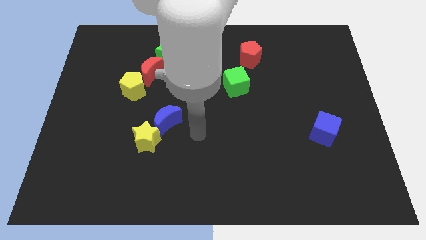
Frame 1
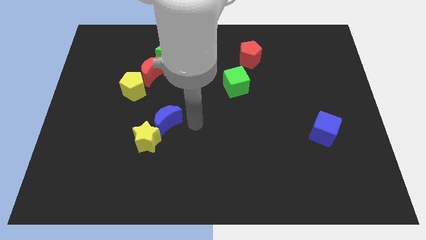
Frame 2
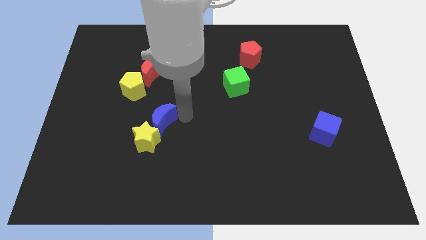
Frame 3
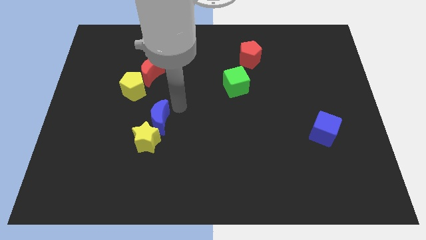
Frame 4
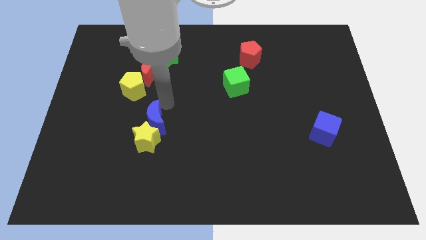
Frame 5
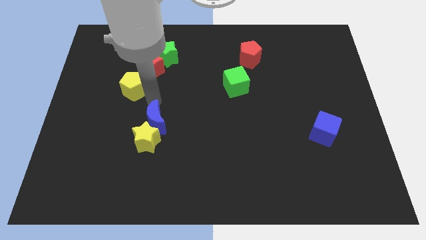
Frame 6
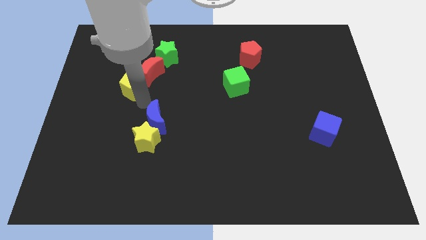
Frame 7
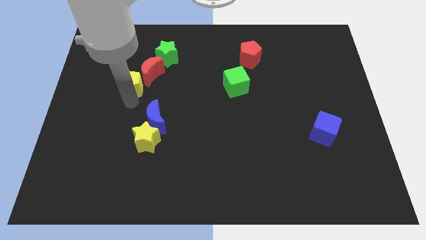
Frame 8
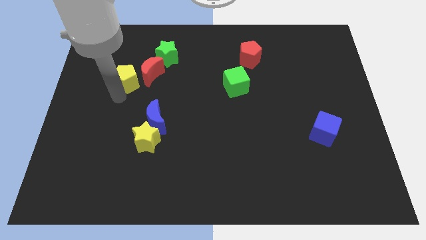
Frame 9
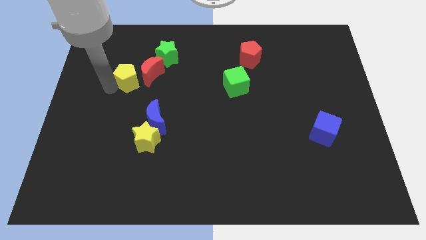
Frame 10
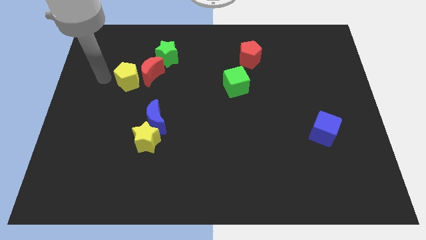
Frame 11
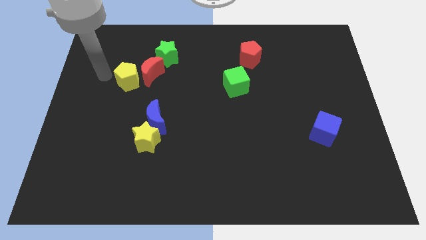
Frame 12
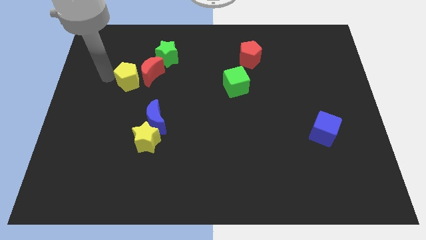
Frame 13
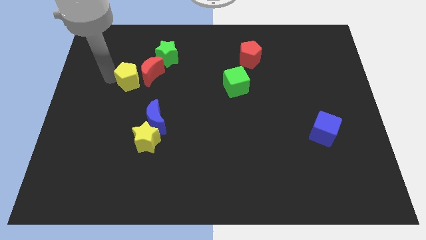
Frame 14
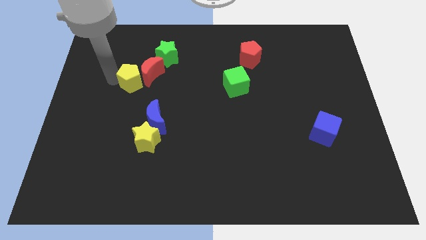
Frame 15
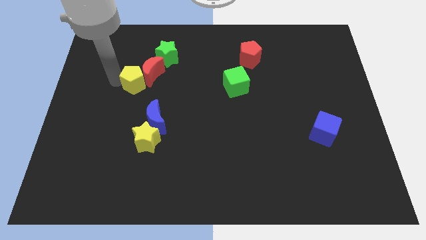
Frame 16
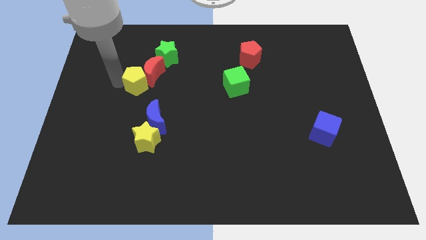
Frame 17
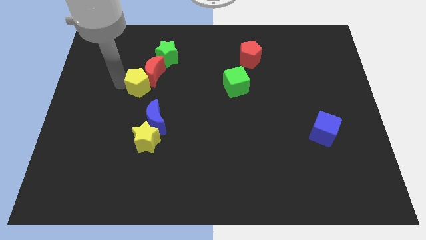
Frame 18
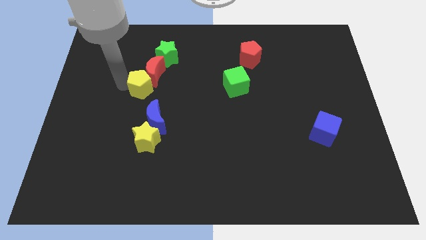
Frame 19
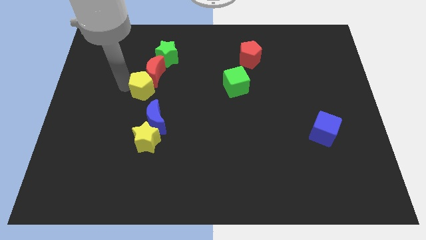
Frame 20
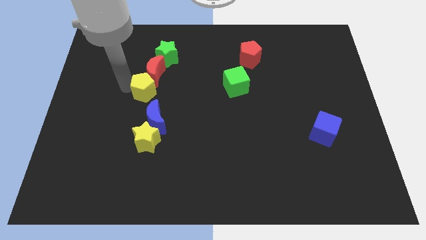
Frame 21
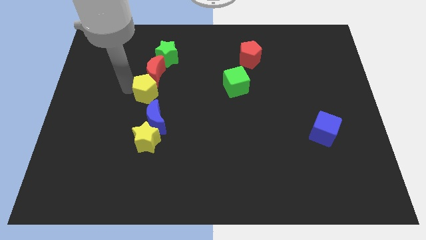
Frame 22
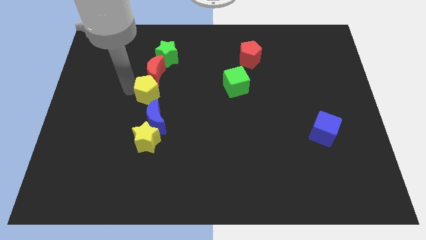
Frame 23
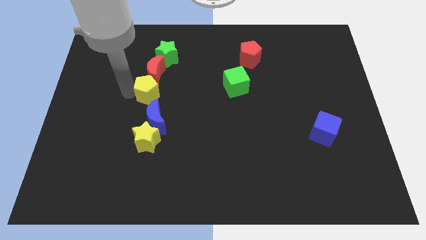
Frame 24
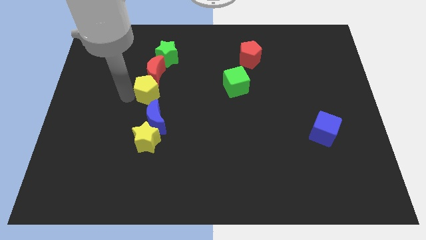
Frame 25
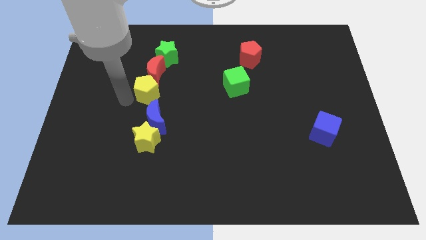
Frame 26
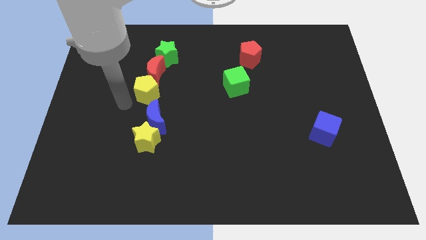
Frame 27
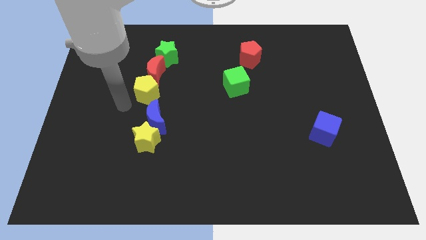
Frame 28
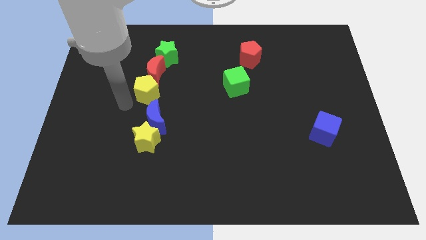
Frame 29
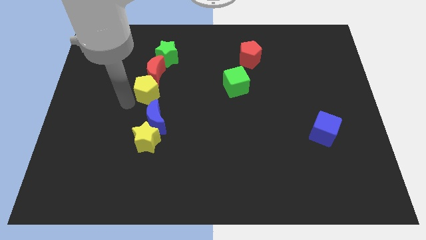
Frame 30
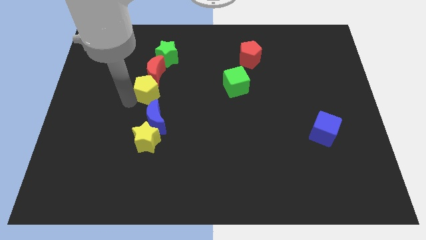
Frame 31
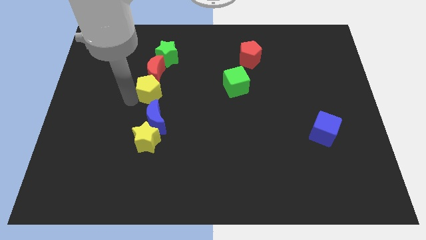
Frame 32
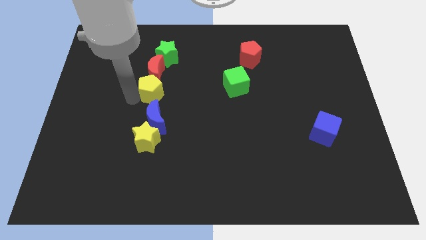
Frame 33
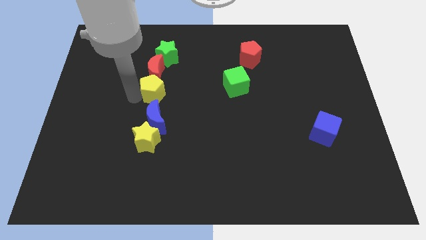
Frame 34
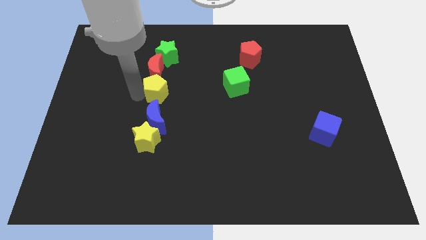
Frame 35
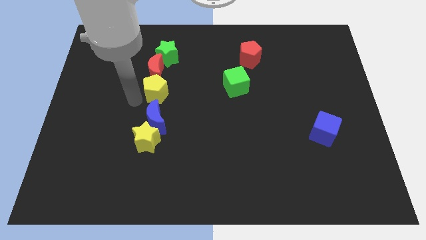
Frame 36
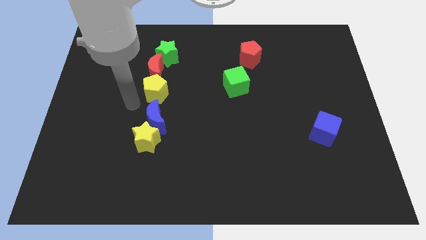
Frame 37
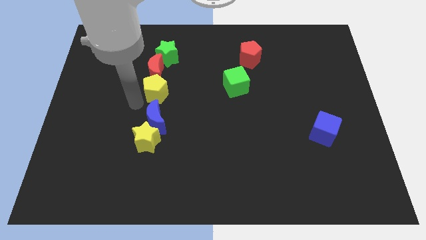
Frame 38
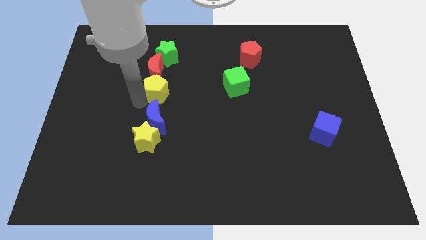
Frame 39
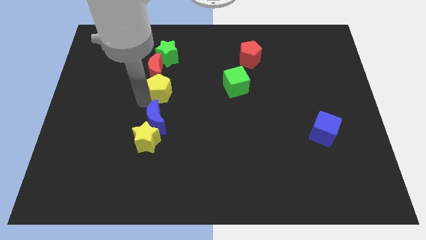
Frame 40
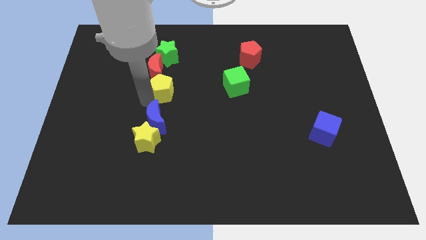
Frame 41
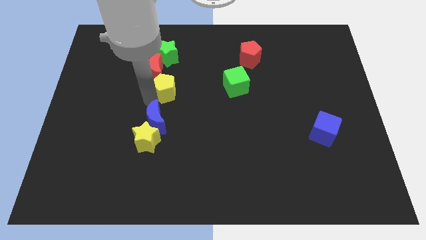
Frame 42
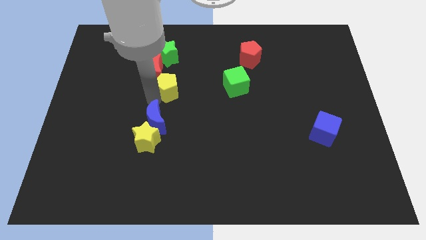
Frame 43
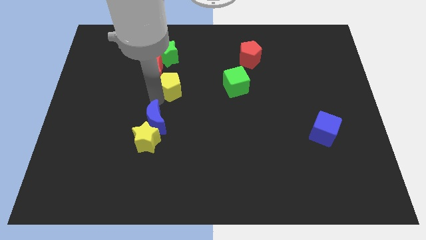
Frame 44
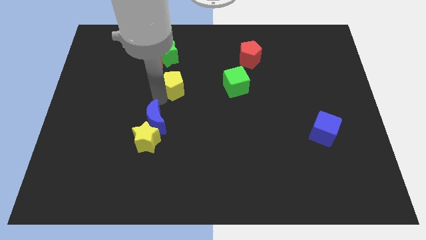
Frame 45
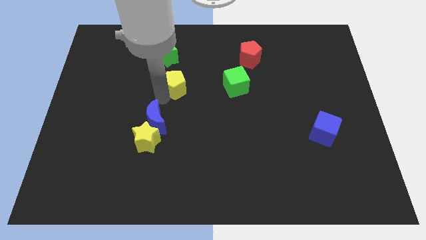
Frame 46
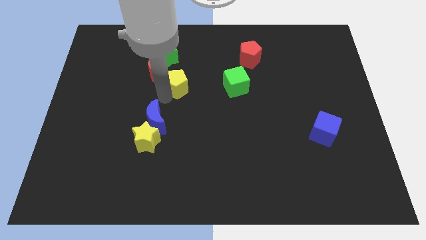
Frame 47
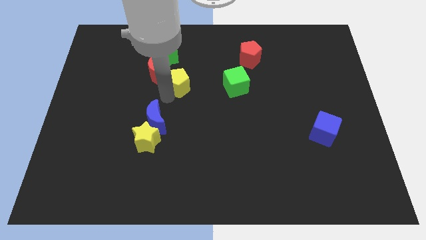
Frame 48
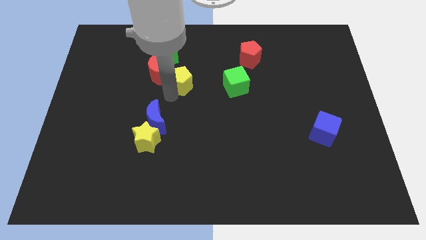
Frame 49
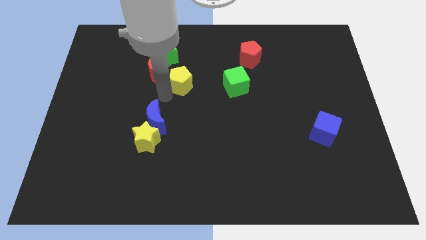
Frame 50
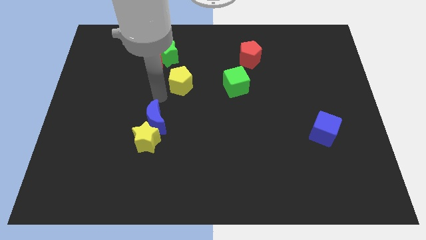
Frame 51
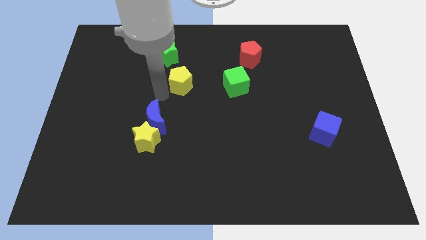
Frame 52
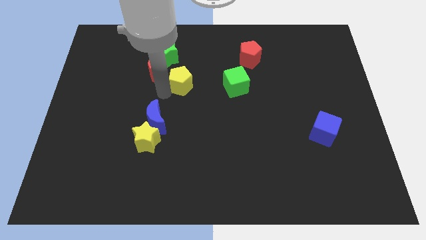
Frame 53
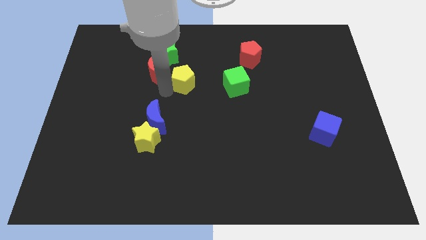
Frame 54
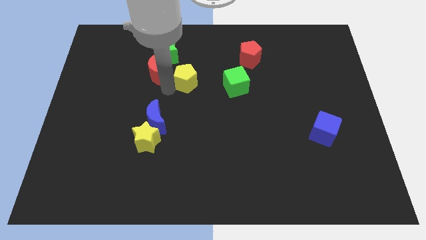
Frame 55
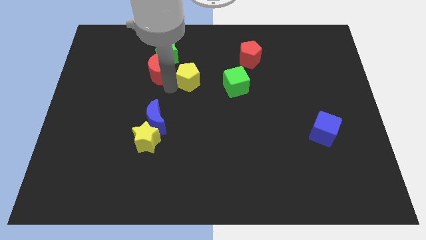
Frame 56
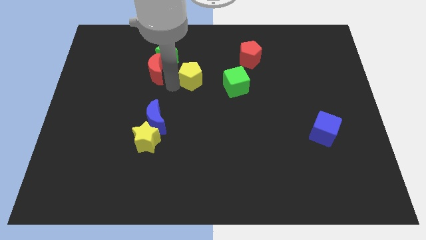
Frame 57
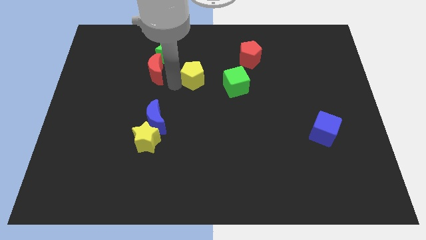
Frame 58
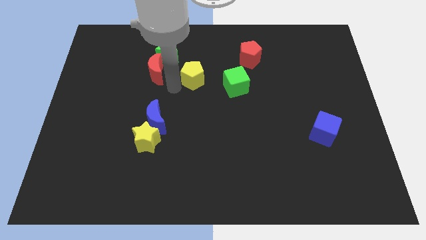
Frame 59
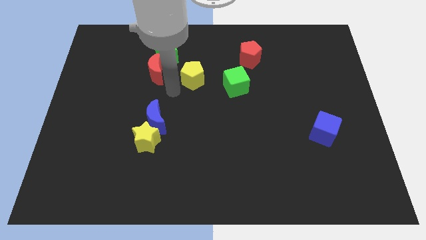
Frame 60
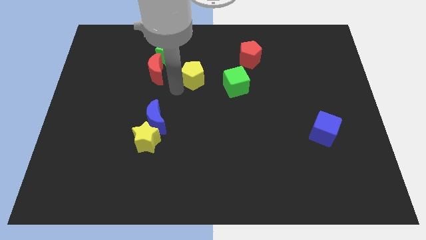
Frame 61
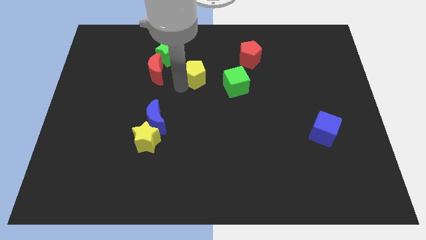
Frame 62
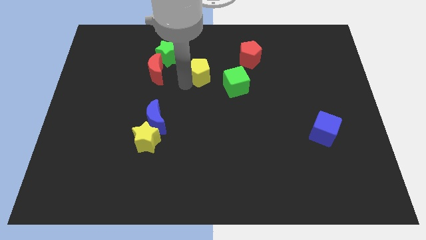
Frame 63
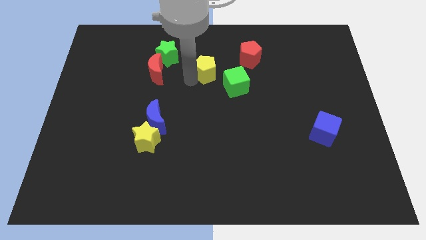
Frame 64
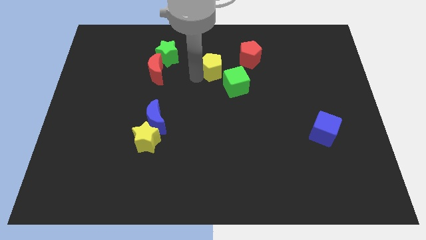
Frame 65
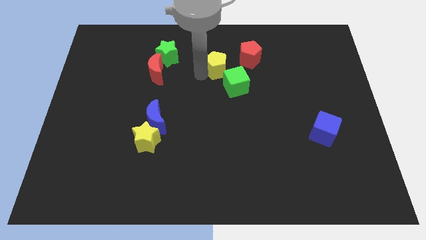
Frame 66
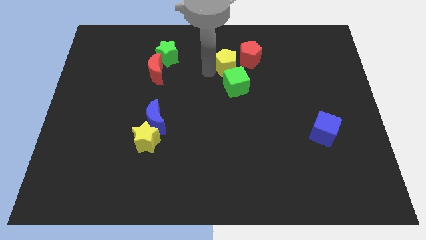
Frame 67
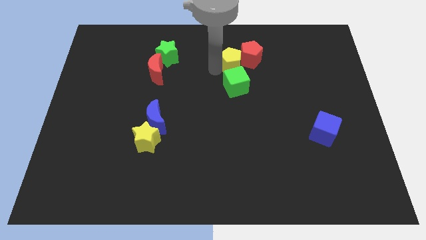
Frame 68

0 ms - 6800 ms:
push the yellow pentagon next to the red pentagon
